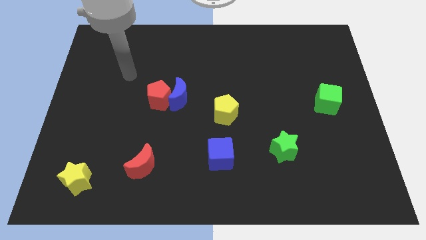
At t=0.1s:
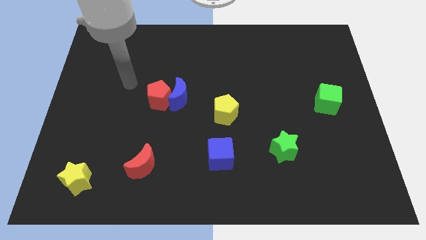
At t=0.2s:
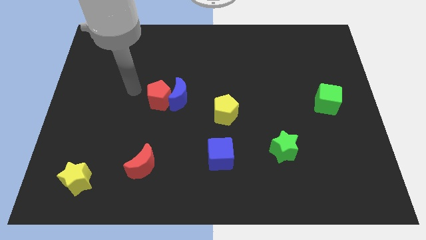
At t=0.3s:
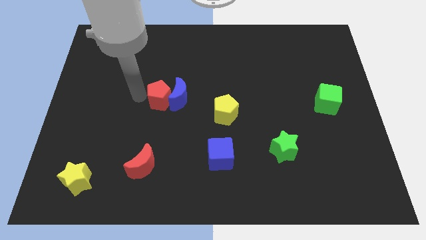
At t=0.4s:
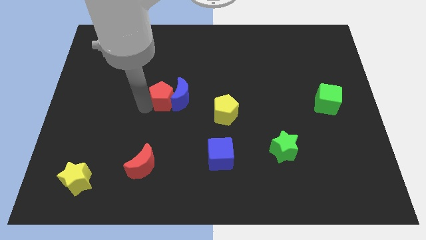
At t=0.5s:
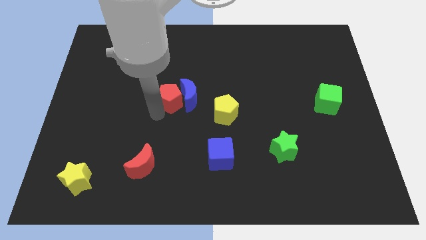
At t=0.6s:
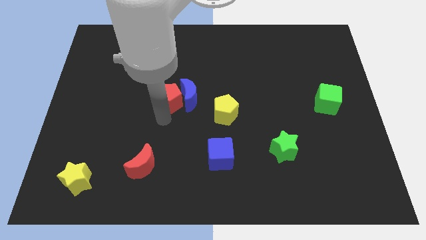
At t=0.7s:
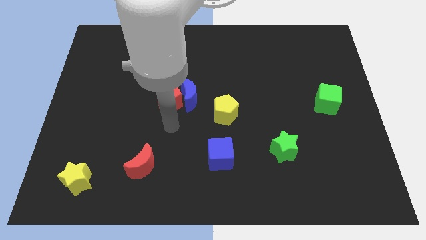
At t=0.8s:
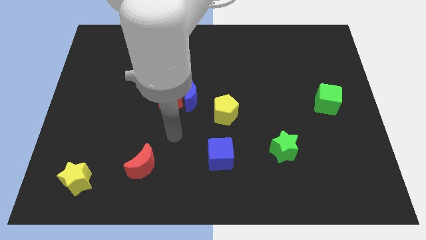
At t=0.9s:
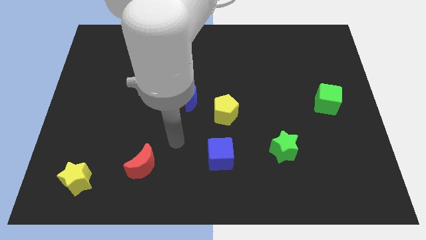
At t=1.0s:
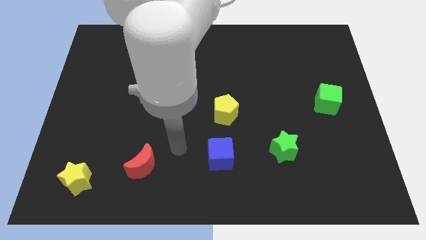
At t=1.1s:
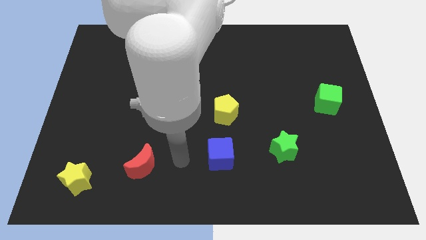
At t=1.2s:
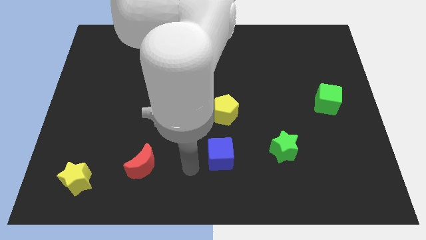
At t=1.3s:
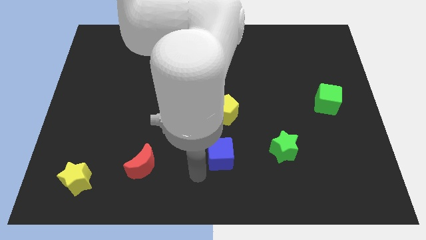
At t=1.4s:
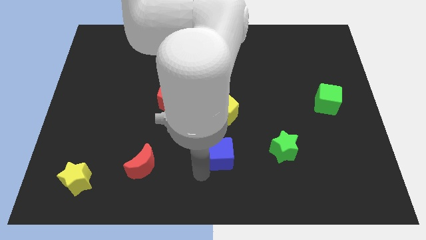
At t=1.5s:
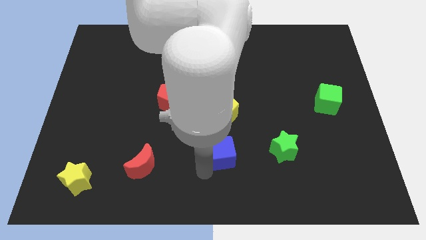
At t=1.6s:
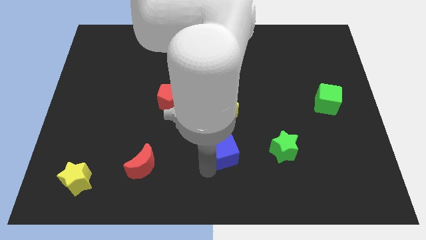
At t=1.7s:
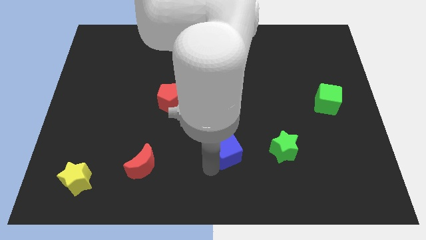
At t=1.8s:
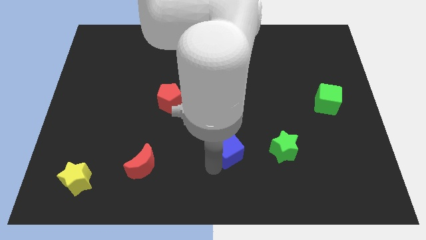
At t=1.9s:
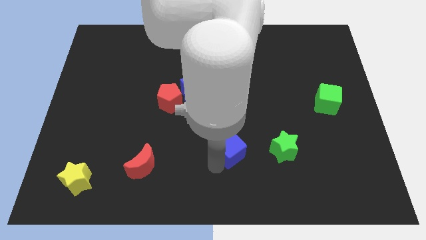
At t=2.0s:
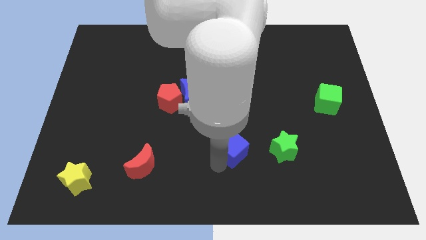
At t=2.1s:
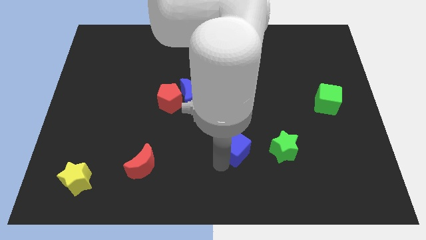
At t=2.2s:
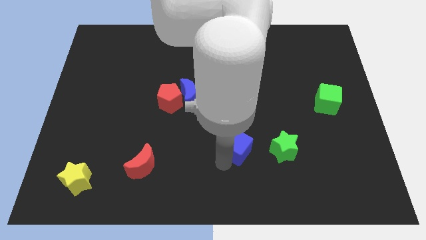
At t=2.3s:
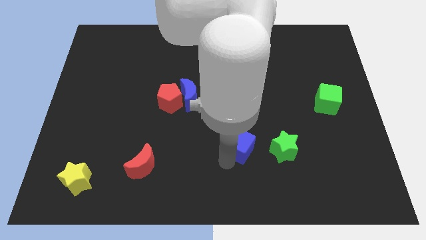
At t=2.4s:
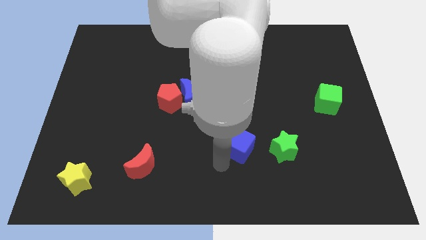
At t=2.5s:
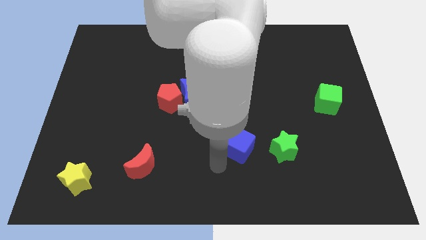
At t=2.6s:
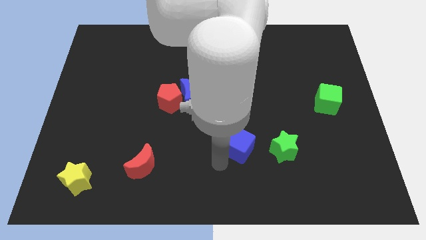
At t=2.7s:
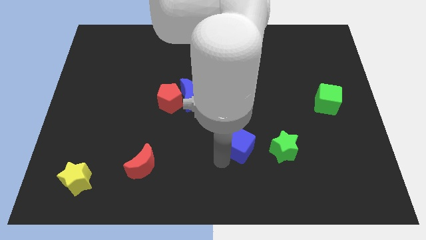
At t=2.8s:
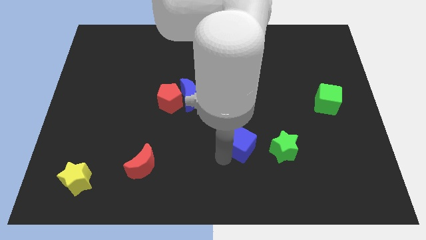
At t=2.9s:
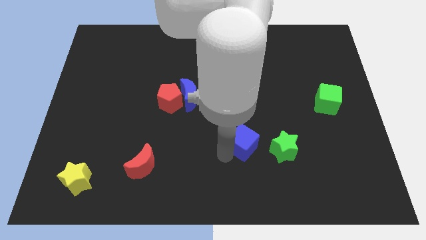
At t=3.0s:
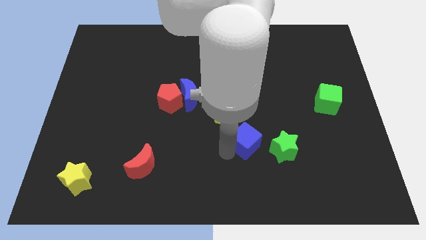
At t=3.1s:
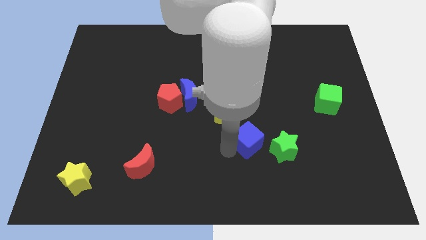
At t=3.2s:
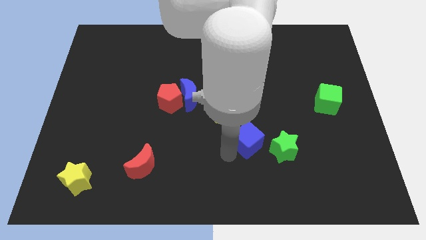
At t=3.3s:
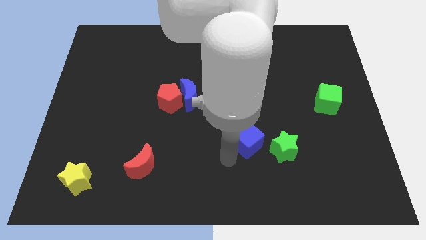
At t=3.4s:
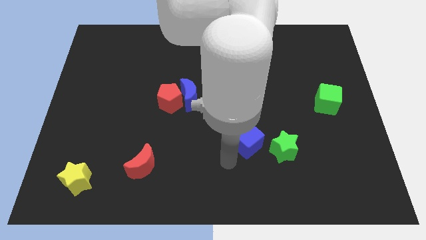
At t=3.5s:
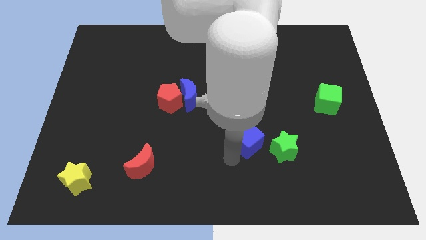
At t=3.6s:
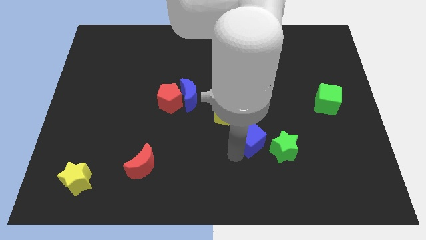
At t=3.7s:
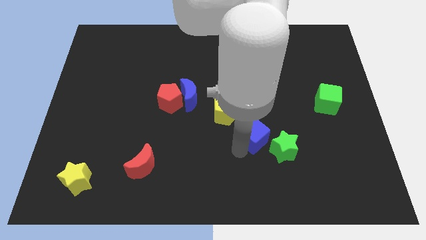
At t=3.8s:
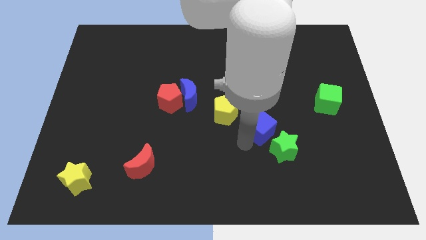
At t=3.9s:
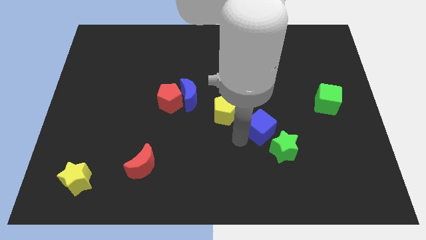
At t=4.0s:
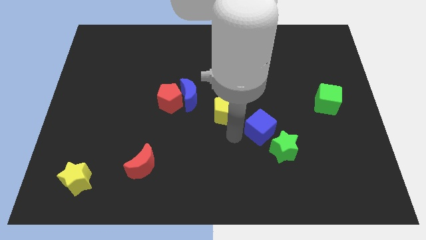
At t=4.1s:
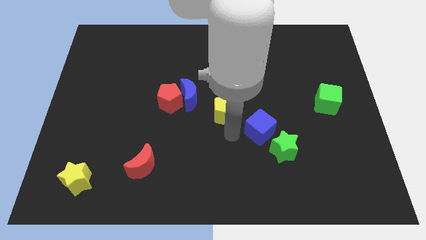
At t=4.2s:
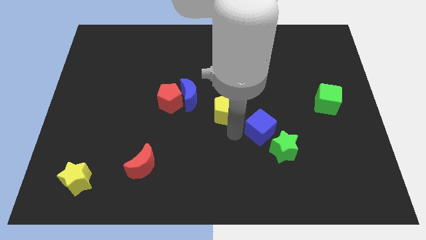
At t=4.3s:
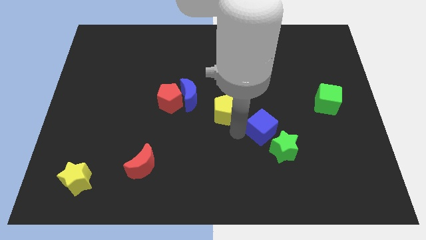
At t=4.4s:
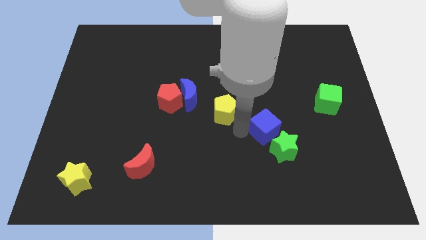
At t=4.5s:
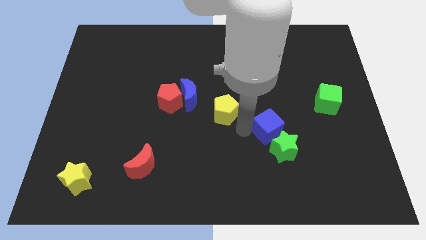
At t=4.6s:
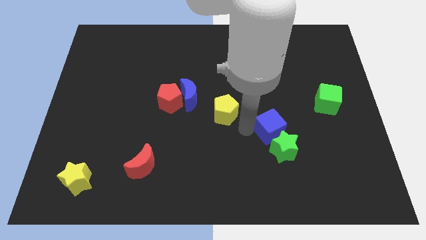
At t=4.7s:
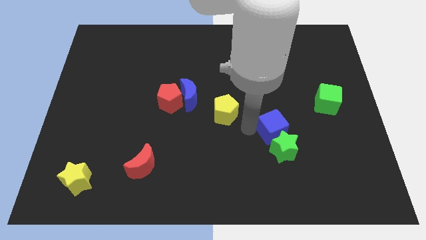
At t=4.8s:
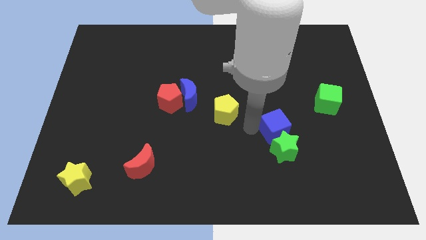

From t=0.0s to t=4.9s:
move the blue cube diagonally up and to the right of the green star

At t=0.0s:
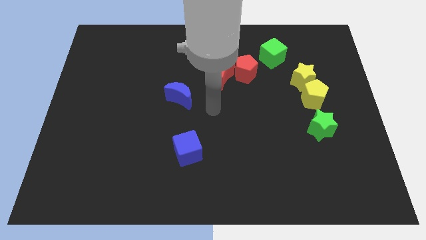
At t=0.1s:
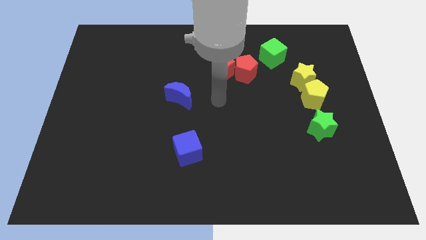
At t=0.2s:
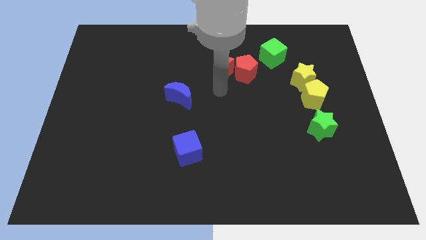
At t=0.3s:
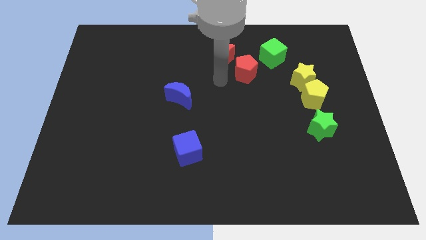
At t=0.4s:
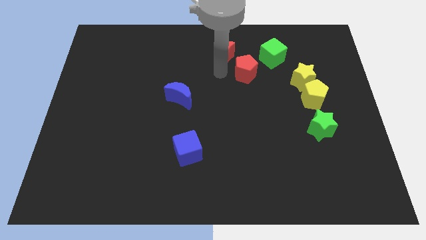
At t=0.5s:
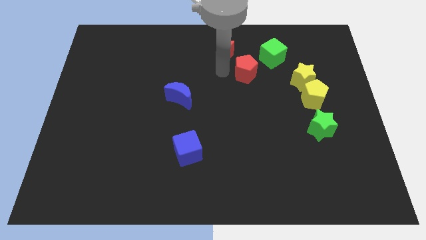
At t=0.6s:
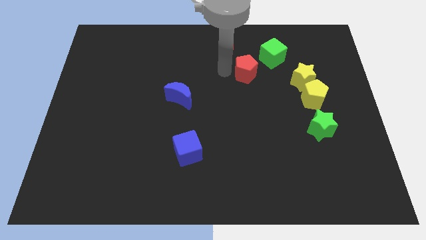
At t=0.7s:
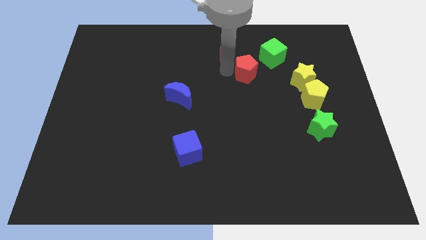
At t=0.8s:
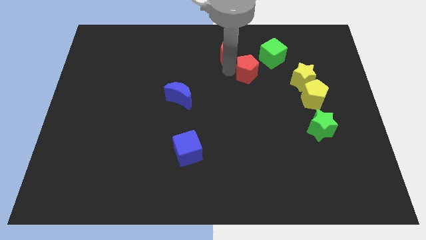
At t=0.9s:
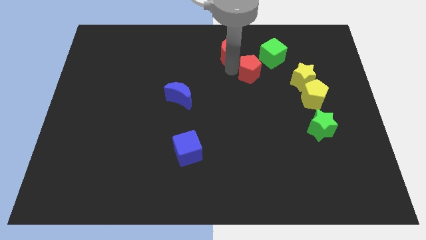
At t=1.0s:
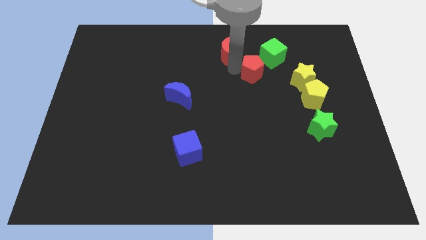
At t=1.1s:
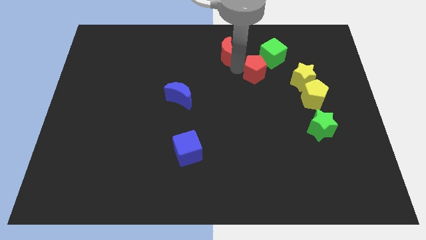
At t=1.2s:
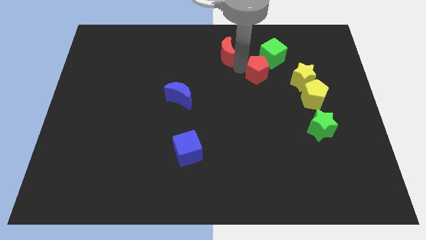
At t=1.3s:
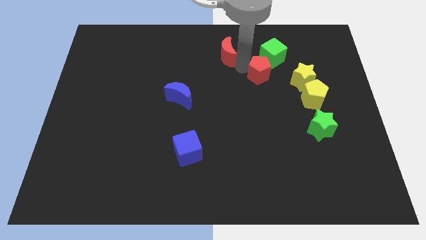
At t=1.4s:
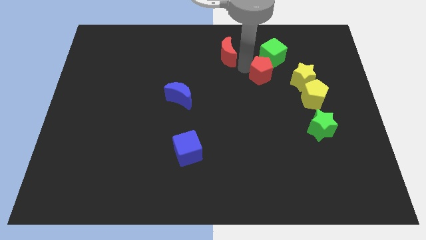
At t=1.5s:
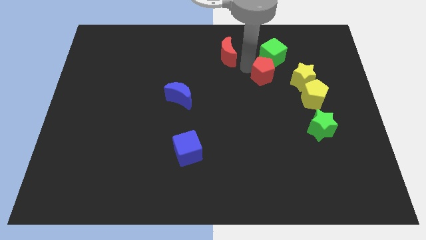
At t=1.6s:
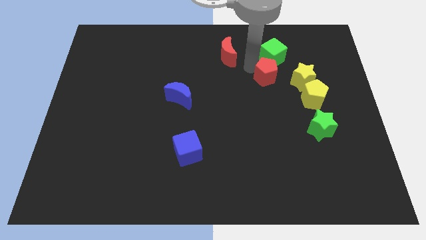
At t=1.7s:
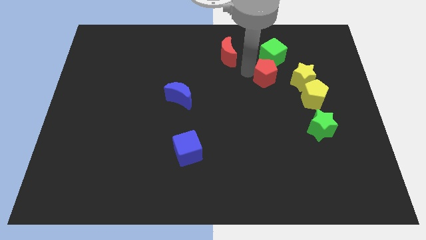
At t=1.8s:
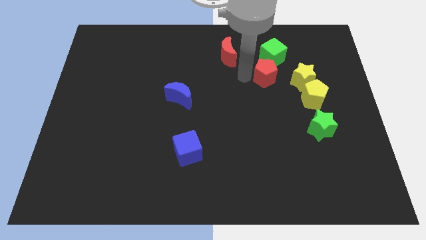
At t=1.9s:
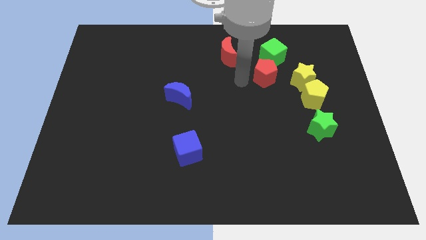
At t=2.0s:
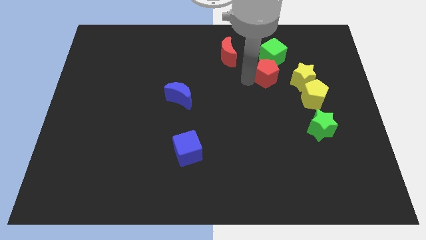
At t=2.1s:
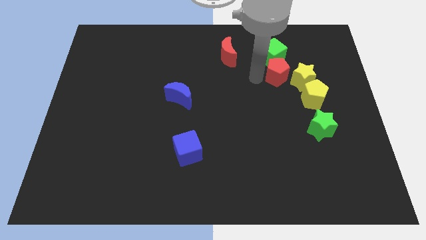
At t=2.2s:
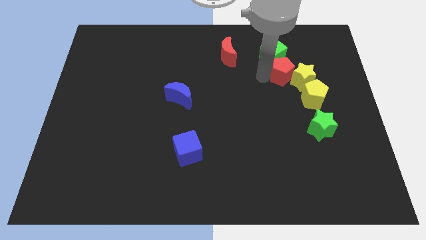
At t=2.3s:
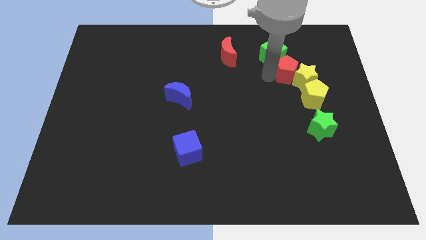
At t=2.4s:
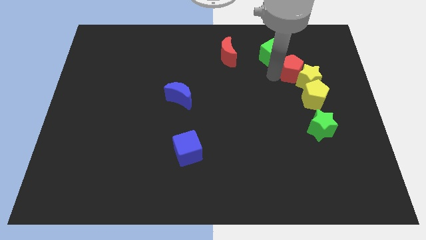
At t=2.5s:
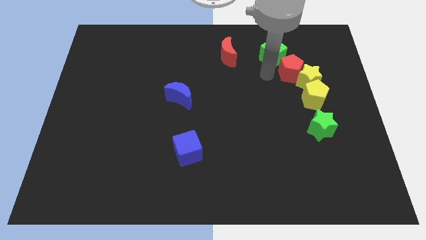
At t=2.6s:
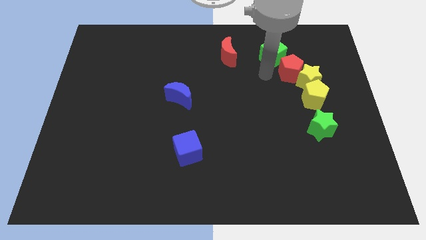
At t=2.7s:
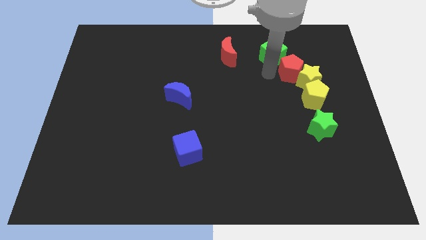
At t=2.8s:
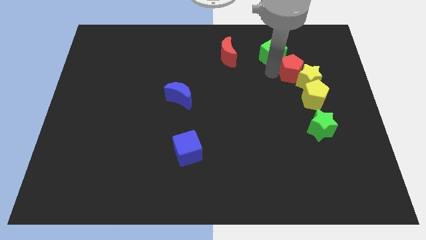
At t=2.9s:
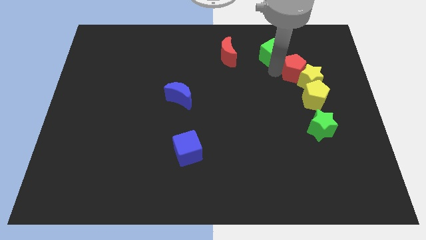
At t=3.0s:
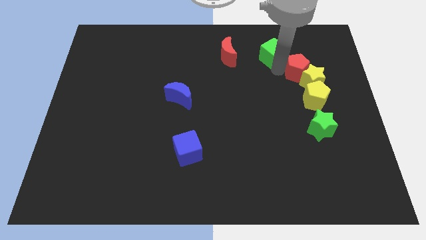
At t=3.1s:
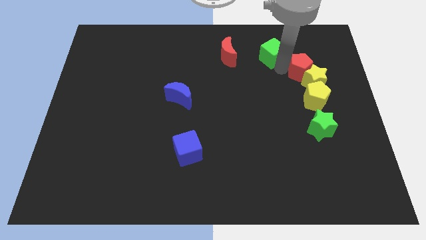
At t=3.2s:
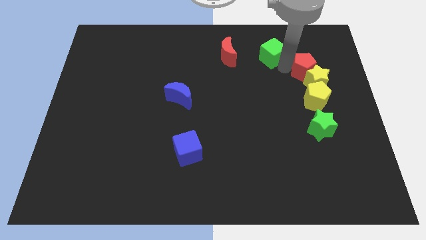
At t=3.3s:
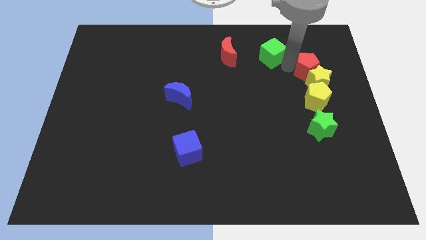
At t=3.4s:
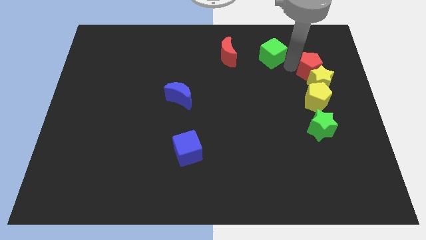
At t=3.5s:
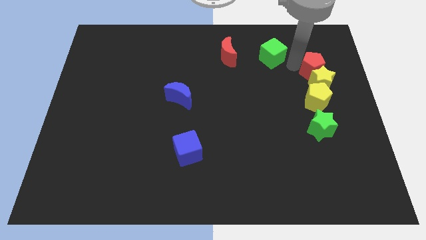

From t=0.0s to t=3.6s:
put the red pentagon to the top right side of the yellow star
